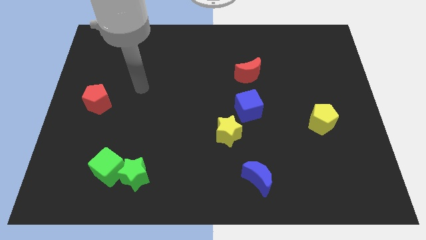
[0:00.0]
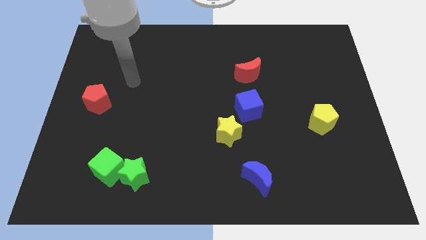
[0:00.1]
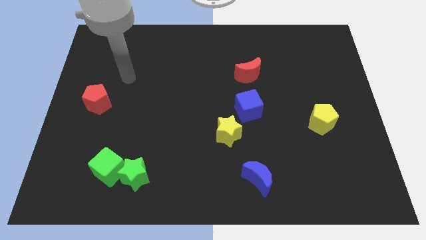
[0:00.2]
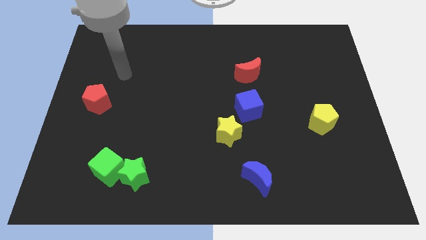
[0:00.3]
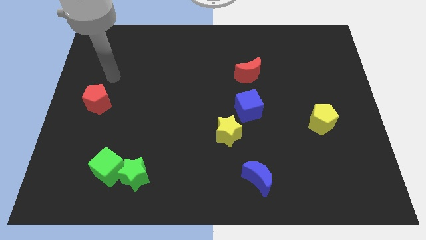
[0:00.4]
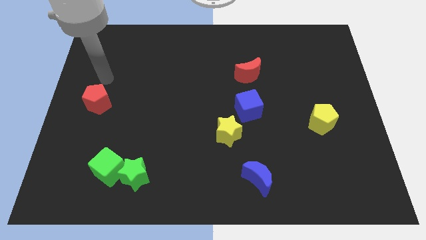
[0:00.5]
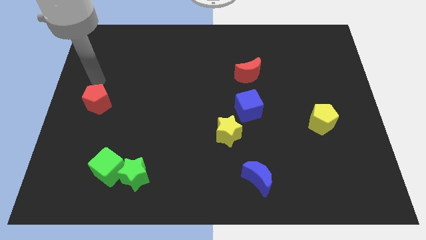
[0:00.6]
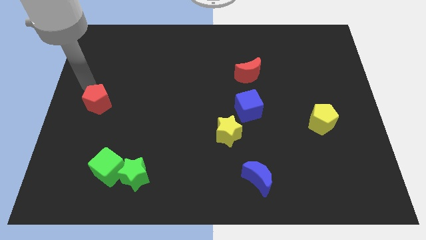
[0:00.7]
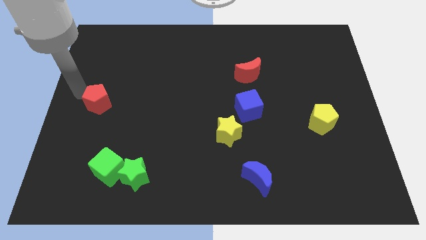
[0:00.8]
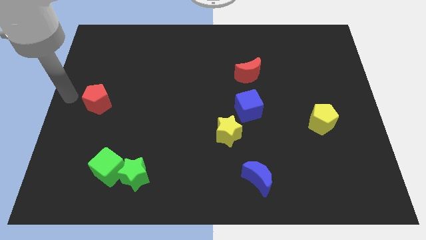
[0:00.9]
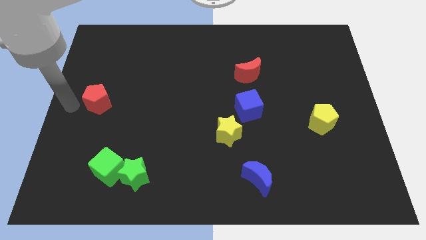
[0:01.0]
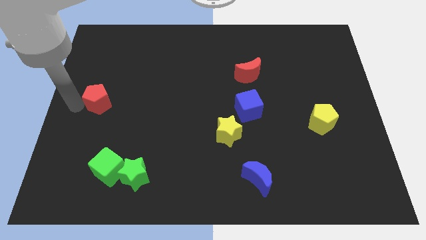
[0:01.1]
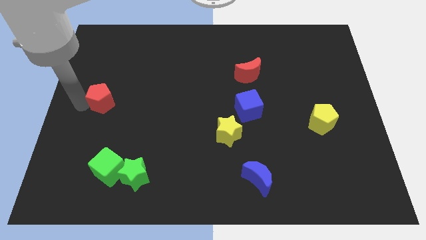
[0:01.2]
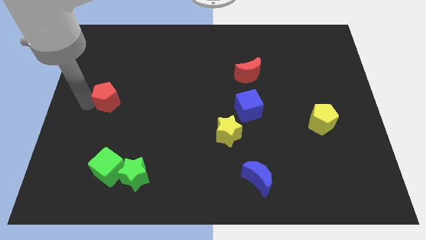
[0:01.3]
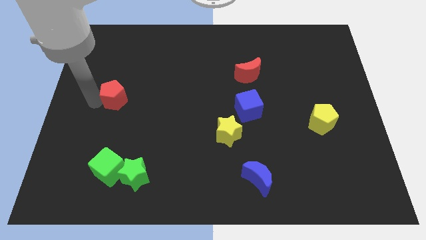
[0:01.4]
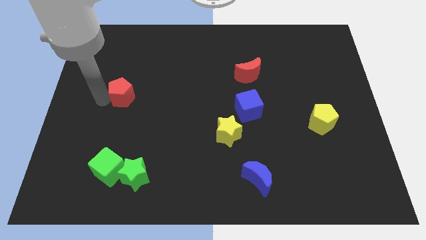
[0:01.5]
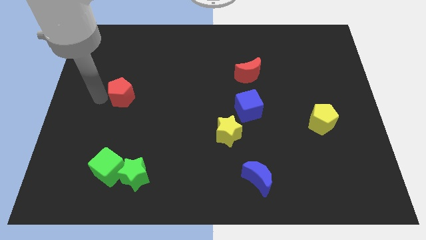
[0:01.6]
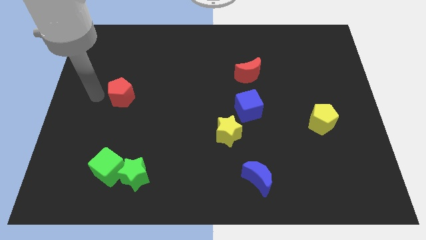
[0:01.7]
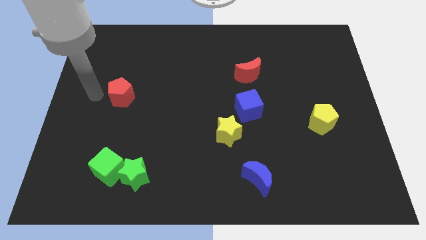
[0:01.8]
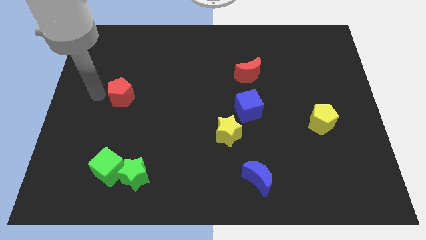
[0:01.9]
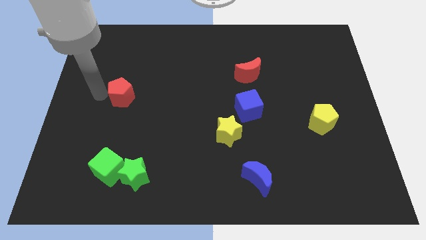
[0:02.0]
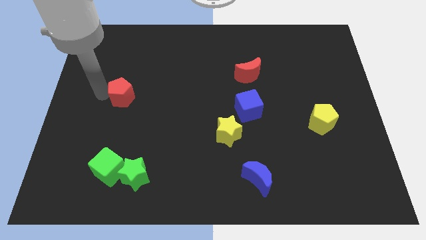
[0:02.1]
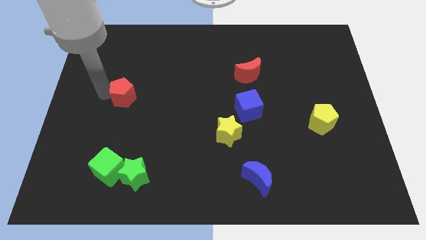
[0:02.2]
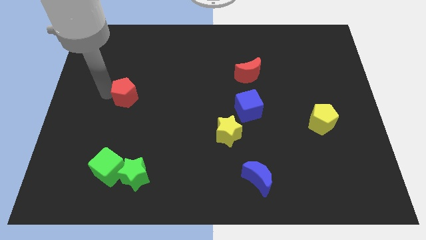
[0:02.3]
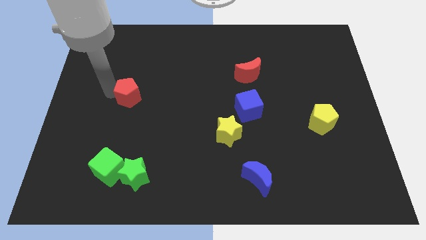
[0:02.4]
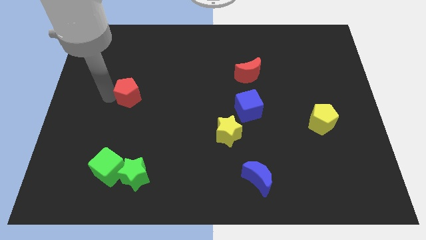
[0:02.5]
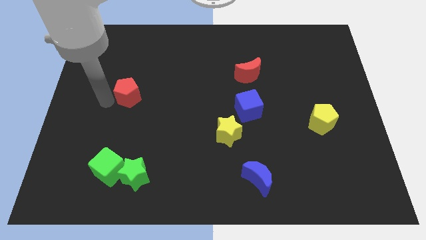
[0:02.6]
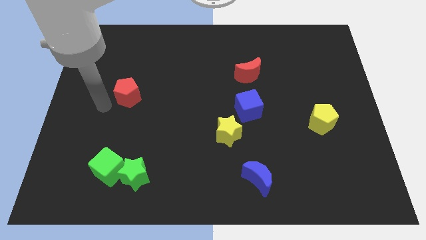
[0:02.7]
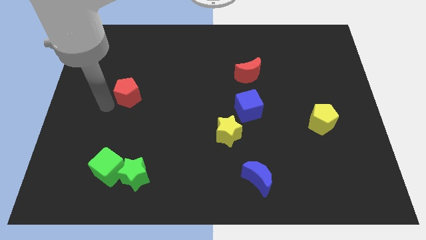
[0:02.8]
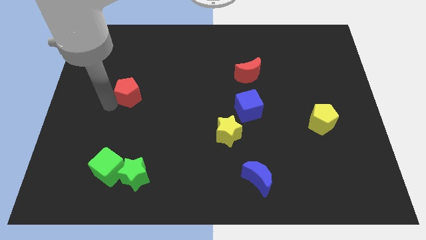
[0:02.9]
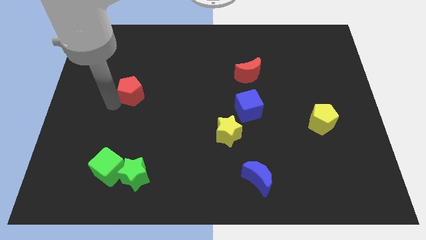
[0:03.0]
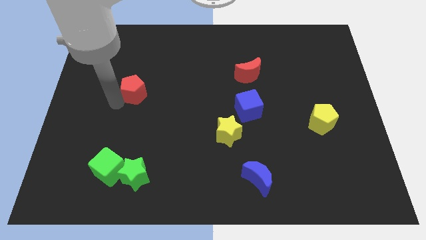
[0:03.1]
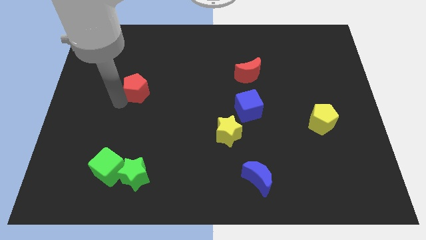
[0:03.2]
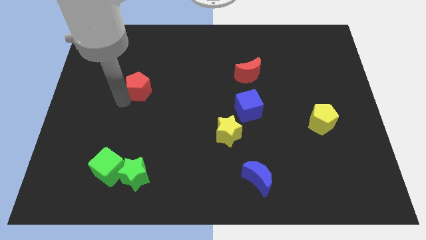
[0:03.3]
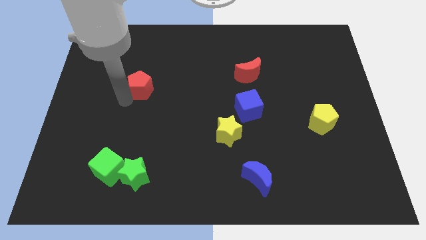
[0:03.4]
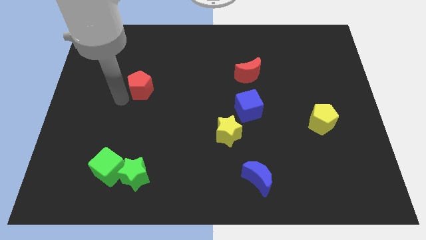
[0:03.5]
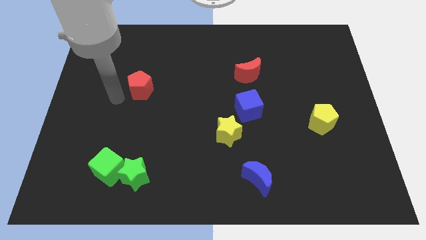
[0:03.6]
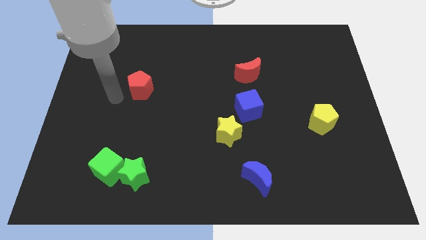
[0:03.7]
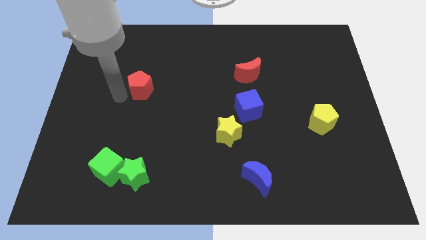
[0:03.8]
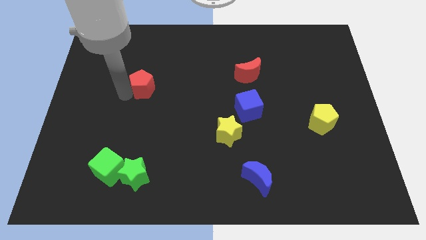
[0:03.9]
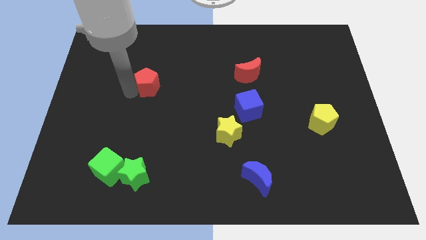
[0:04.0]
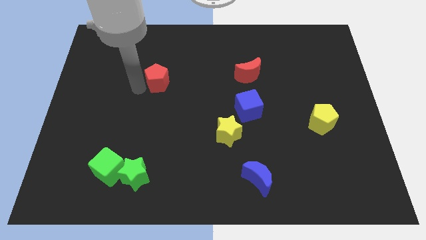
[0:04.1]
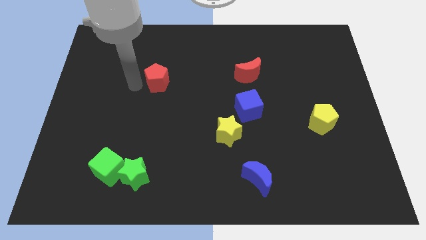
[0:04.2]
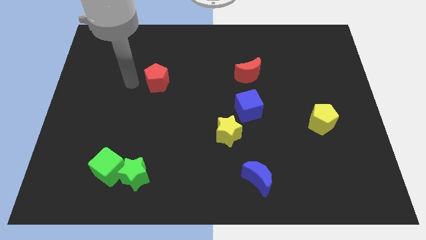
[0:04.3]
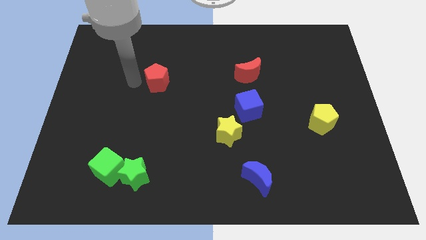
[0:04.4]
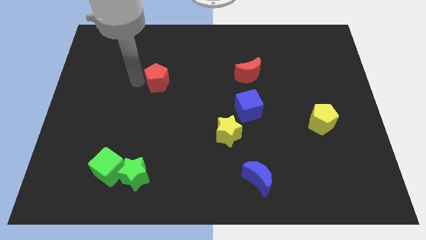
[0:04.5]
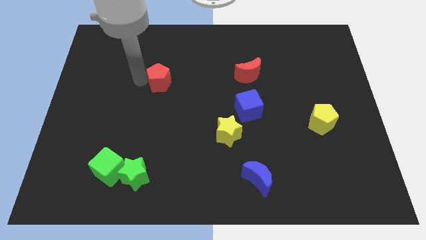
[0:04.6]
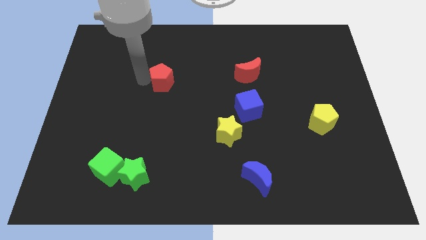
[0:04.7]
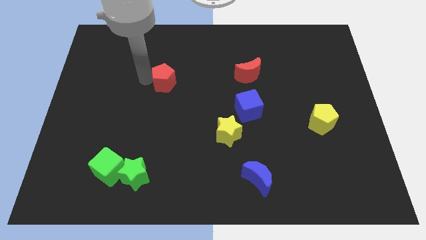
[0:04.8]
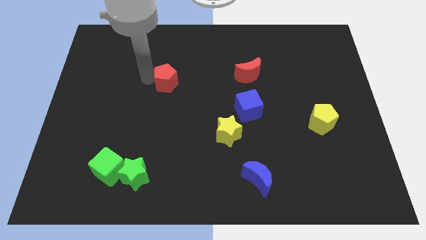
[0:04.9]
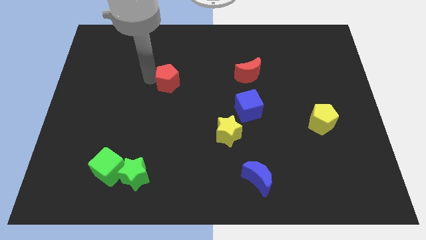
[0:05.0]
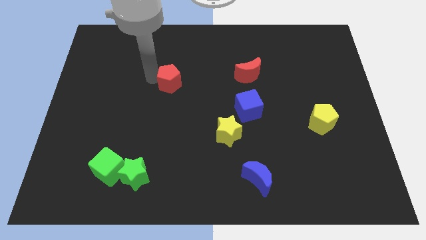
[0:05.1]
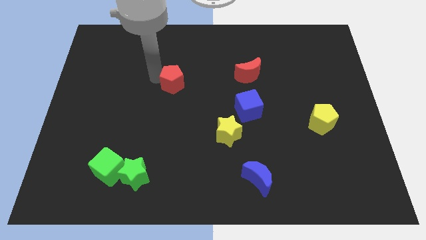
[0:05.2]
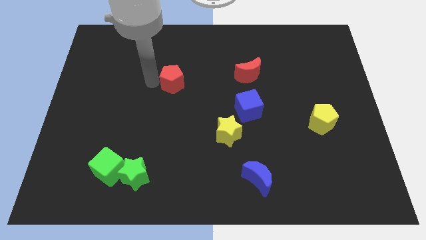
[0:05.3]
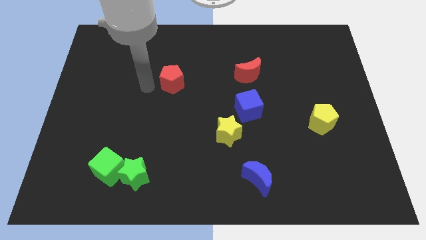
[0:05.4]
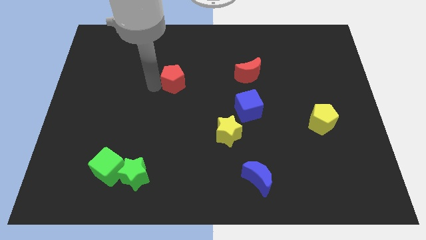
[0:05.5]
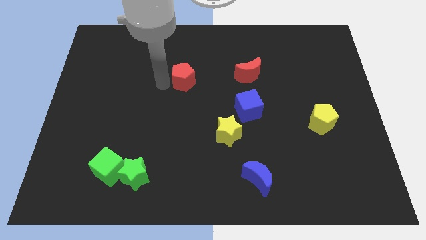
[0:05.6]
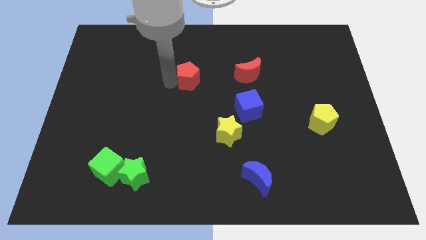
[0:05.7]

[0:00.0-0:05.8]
push the red pentagon to the left of the red moon

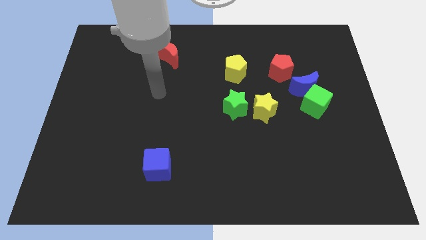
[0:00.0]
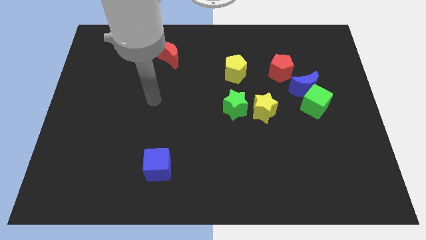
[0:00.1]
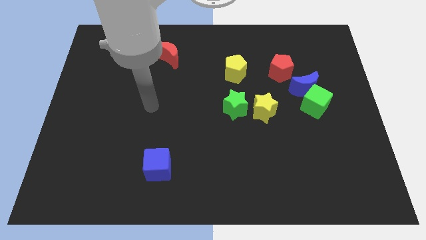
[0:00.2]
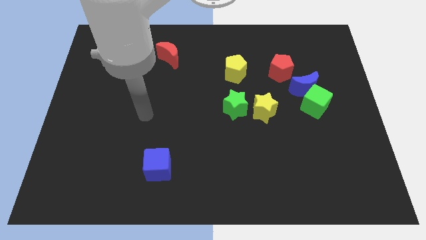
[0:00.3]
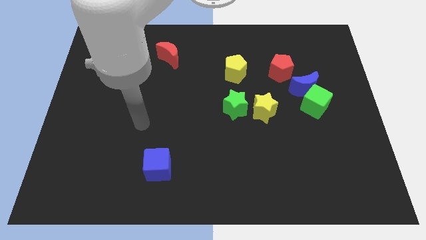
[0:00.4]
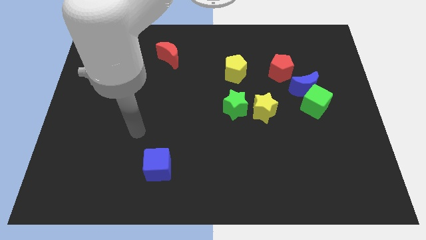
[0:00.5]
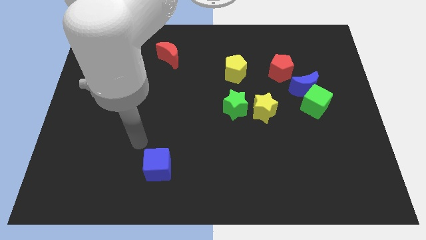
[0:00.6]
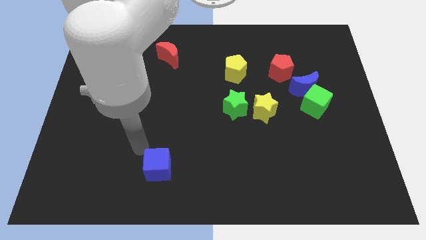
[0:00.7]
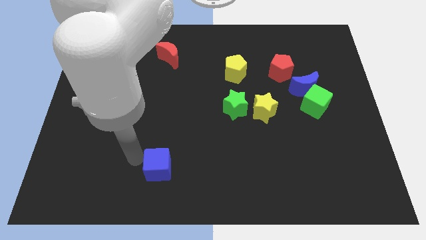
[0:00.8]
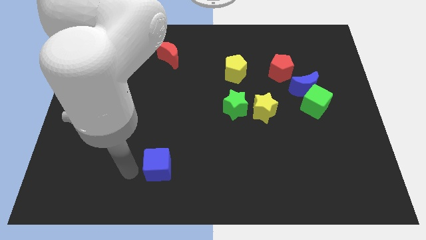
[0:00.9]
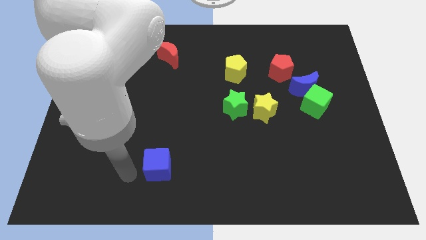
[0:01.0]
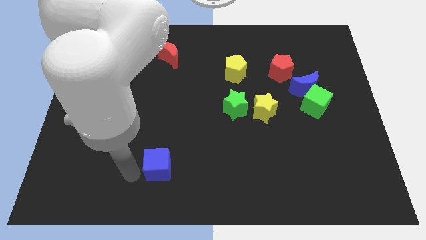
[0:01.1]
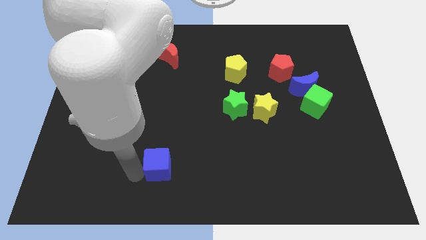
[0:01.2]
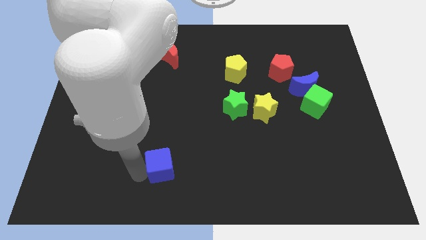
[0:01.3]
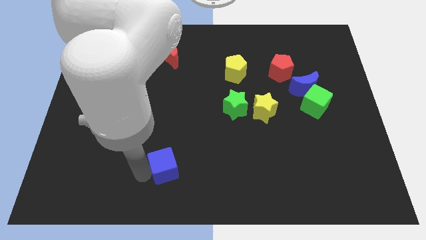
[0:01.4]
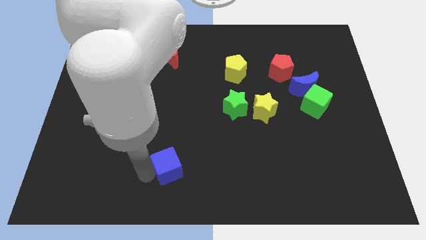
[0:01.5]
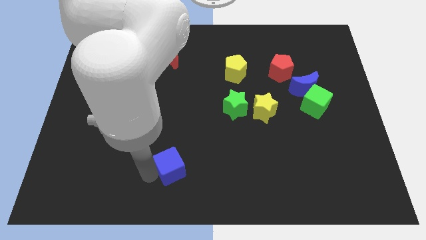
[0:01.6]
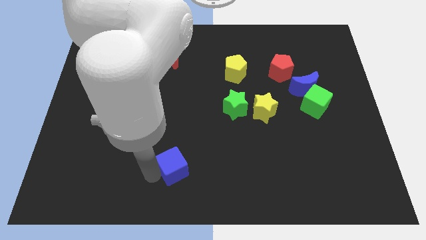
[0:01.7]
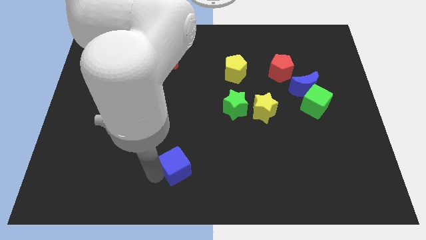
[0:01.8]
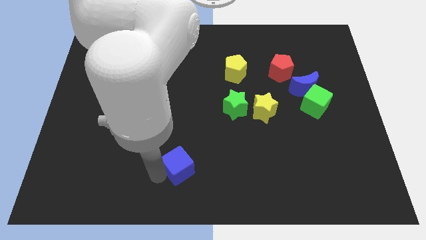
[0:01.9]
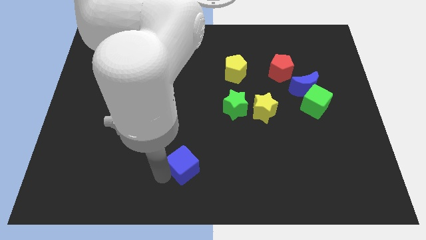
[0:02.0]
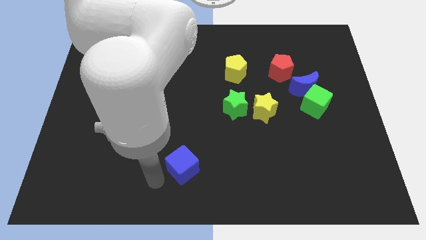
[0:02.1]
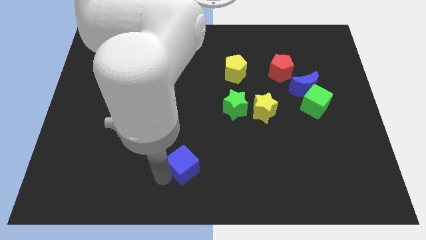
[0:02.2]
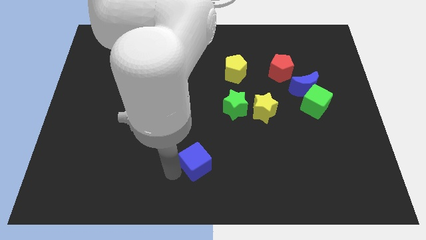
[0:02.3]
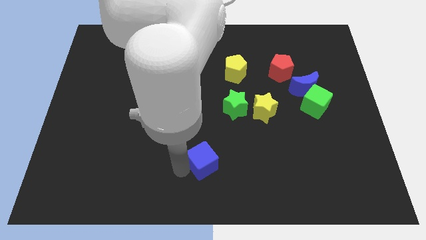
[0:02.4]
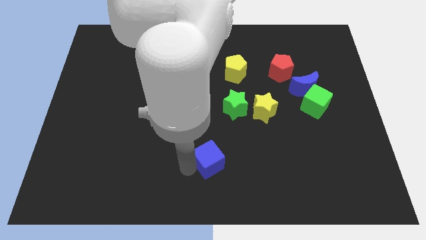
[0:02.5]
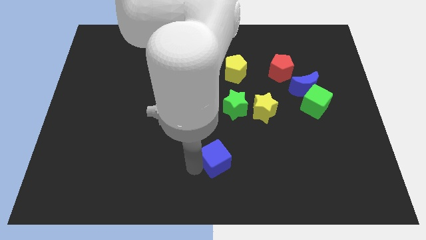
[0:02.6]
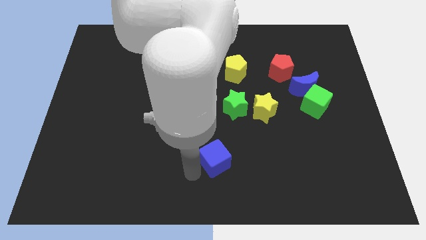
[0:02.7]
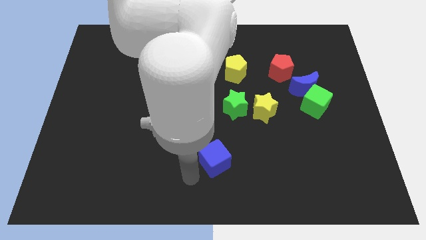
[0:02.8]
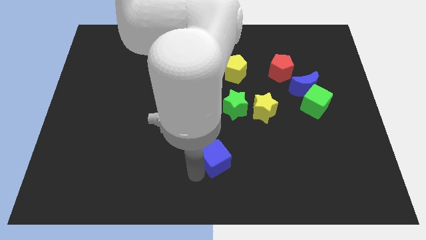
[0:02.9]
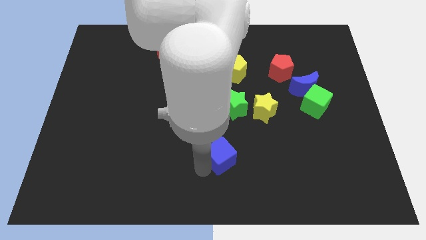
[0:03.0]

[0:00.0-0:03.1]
push the blue cube below the green star
